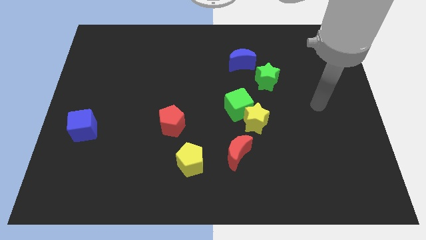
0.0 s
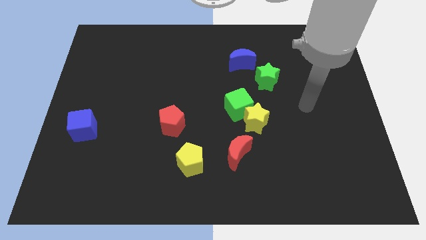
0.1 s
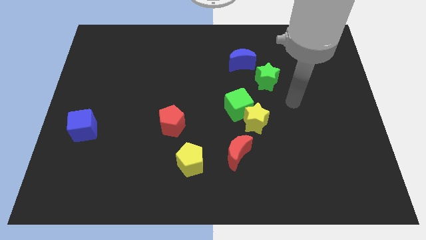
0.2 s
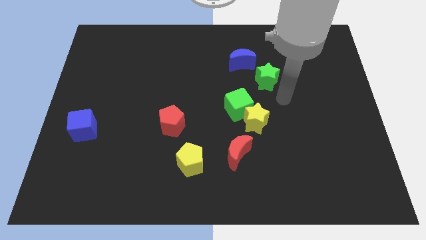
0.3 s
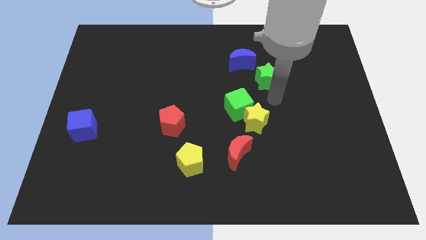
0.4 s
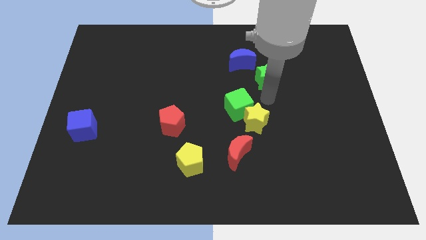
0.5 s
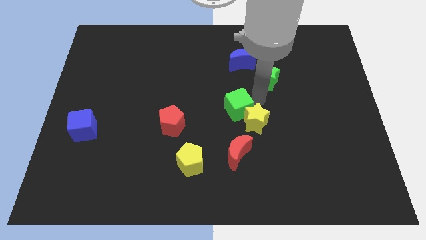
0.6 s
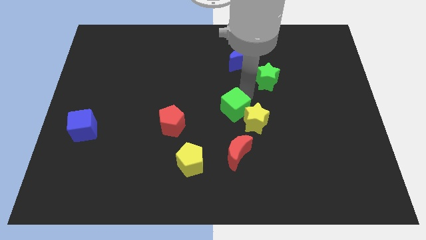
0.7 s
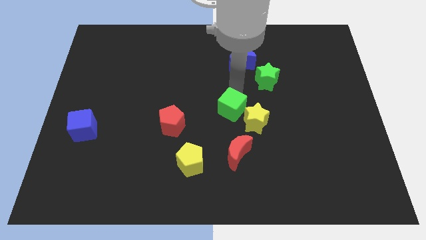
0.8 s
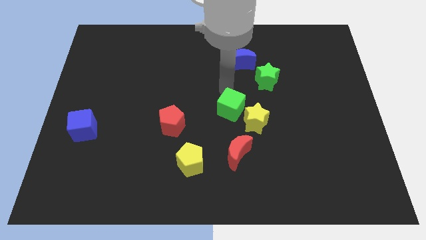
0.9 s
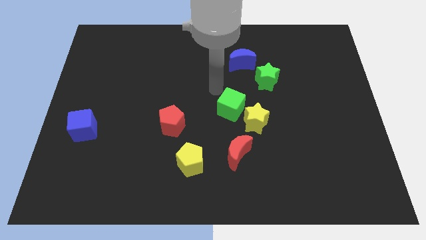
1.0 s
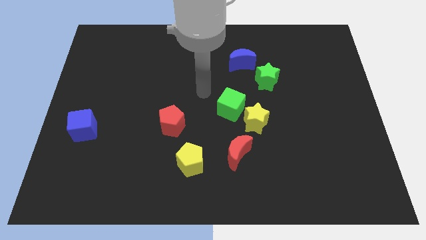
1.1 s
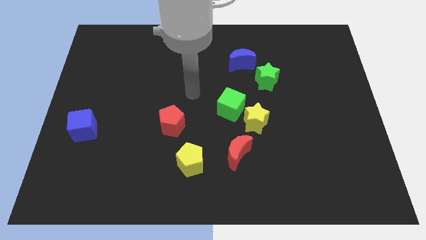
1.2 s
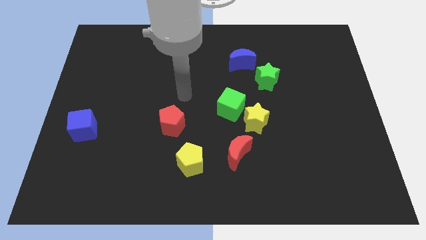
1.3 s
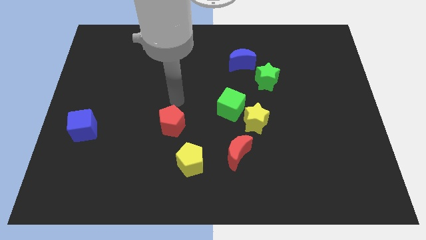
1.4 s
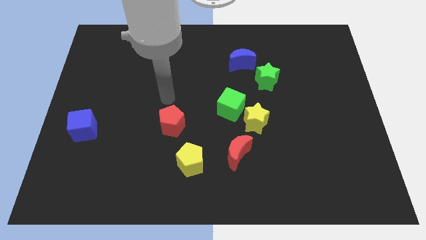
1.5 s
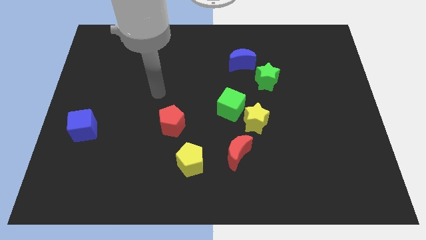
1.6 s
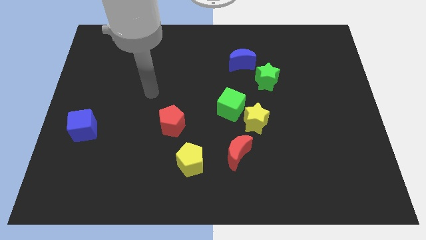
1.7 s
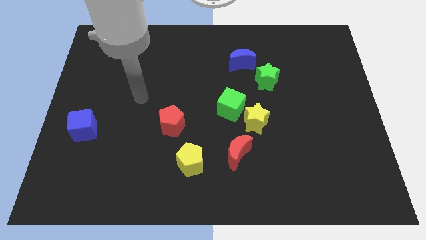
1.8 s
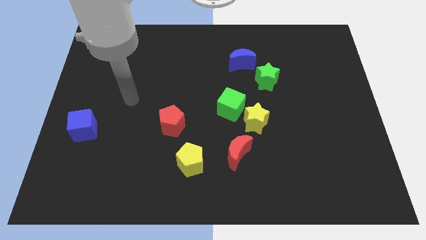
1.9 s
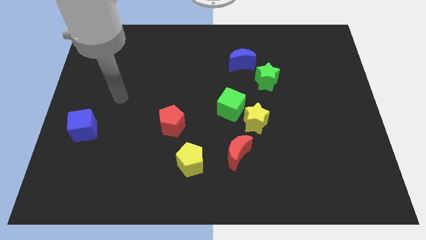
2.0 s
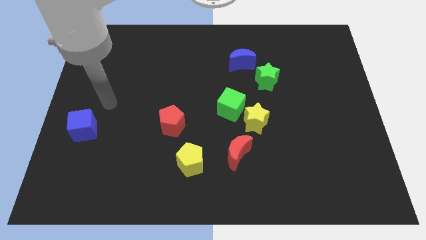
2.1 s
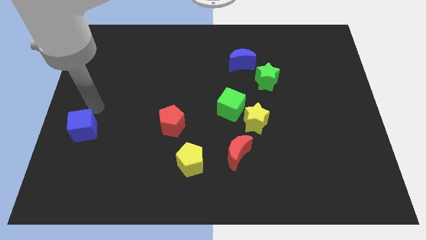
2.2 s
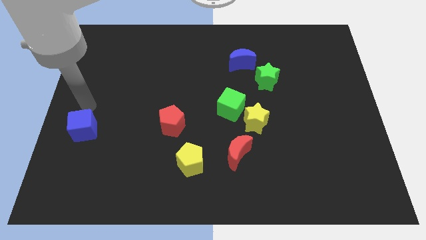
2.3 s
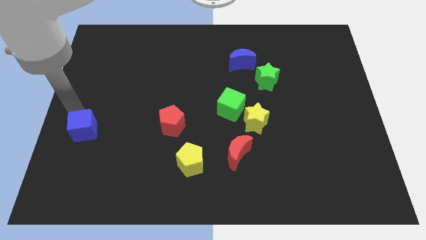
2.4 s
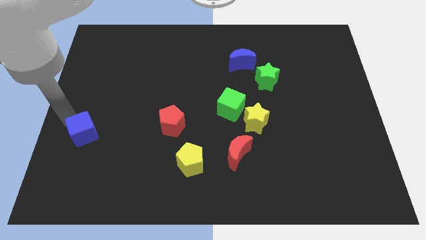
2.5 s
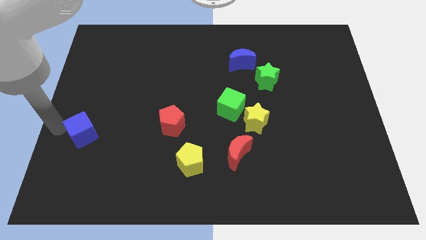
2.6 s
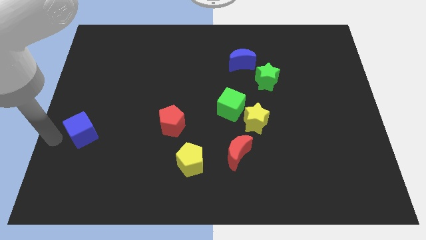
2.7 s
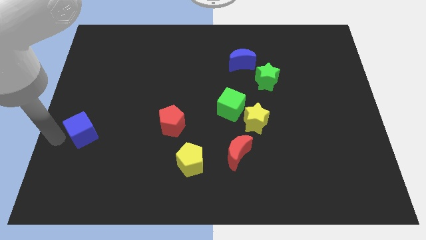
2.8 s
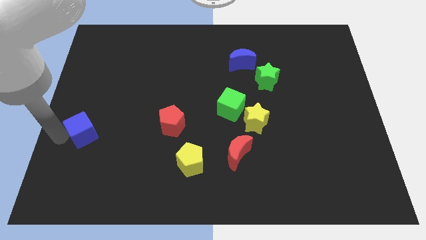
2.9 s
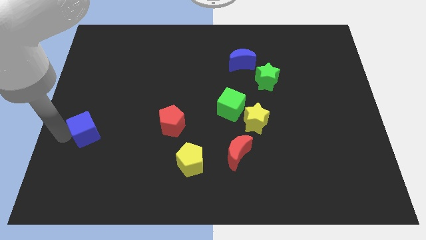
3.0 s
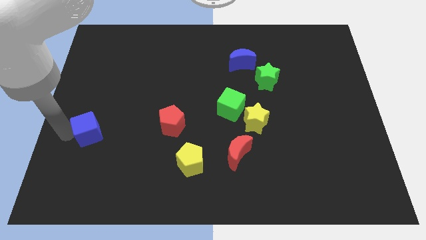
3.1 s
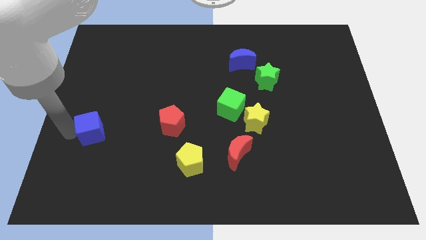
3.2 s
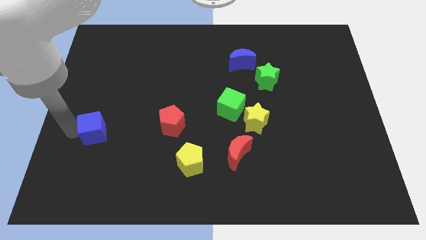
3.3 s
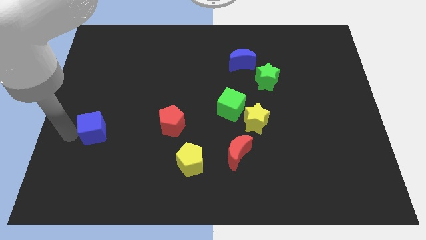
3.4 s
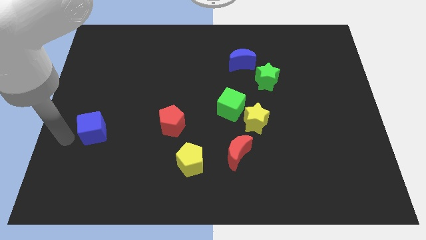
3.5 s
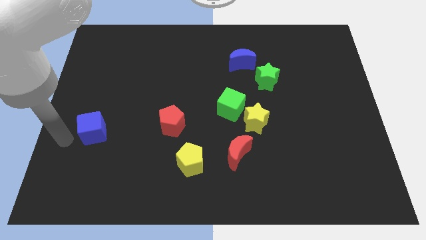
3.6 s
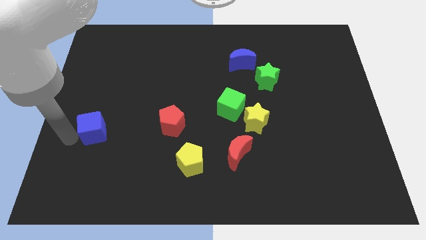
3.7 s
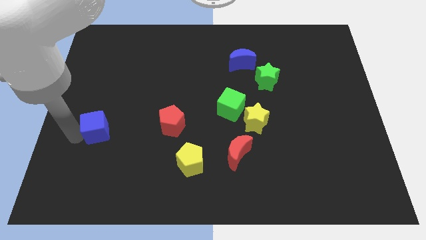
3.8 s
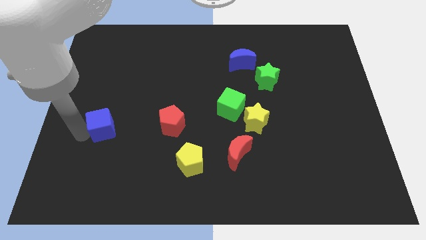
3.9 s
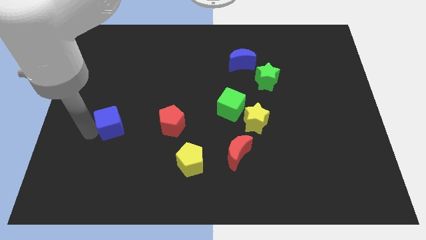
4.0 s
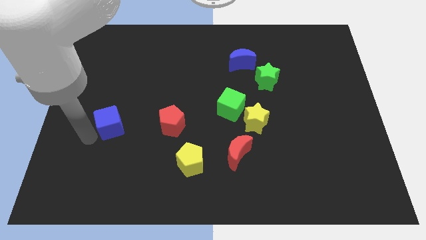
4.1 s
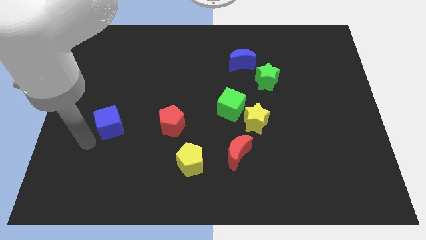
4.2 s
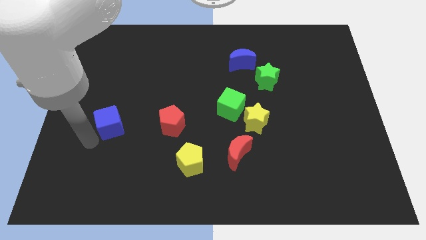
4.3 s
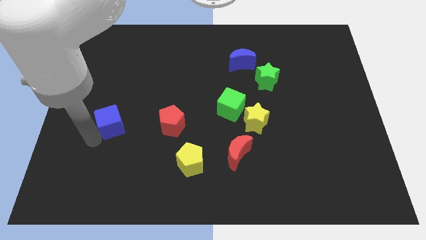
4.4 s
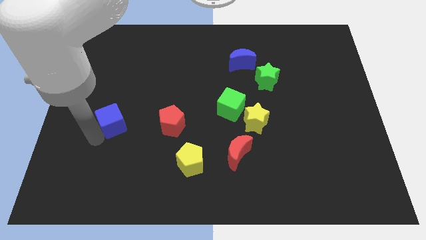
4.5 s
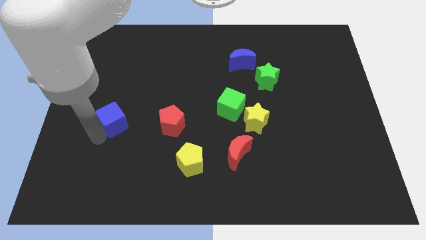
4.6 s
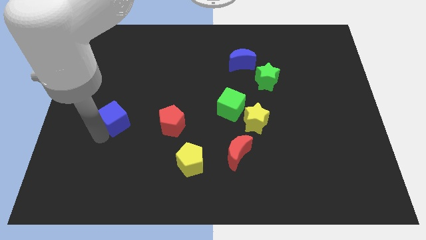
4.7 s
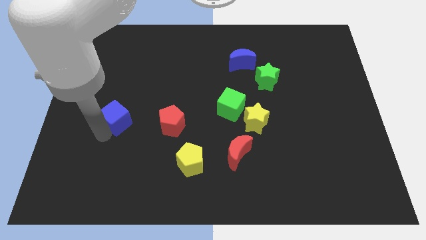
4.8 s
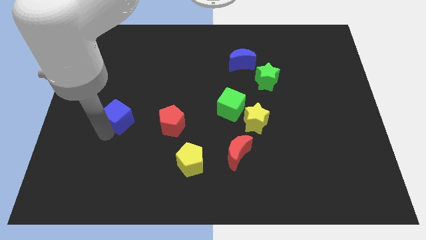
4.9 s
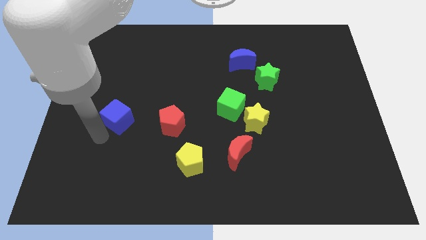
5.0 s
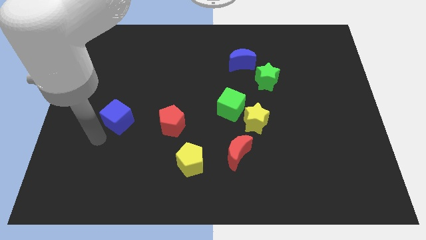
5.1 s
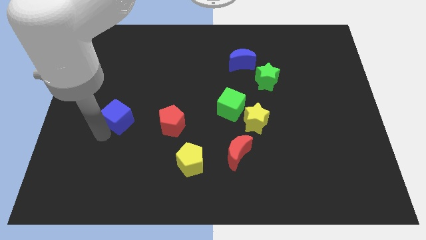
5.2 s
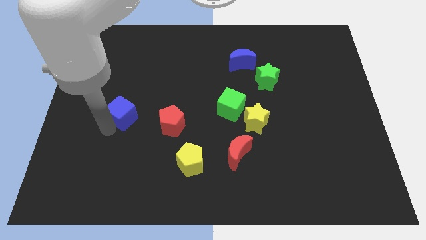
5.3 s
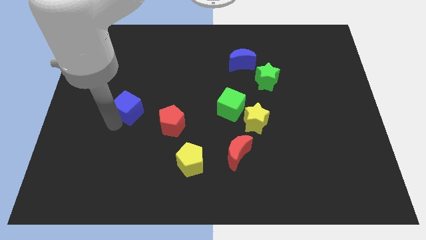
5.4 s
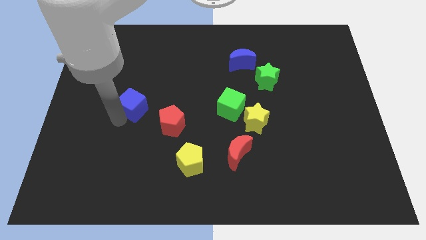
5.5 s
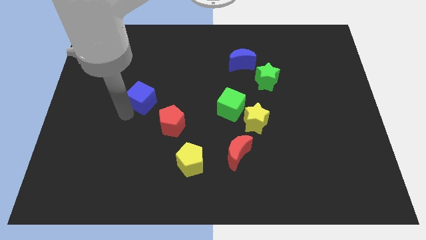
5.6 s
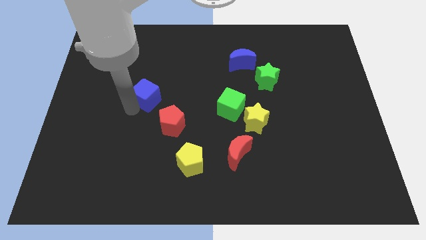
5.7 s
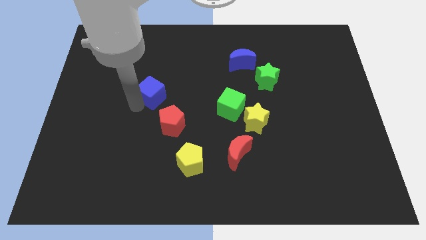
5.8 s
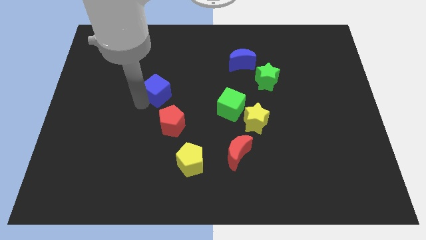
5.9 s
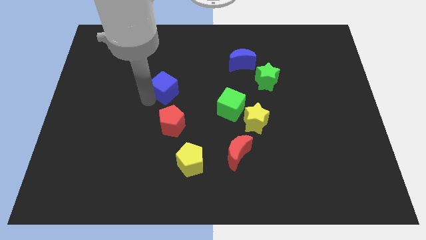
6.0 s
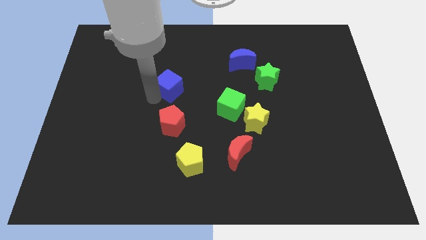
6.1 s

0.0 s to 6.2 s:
slide the blue cube up and to the right

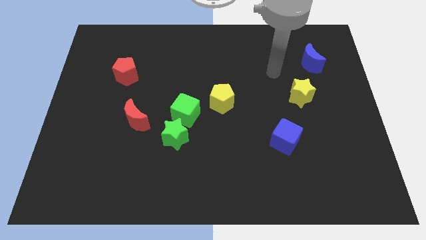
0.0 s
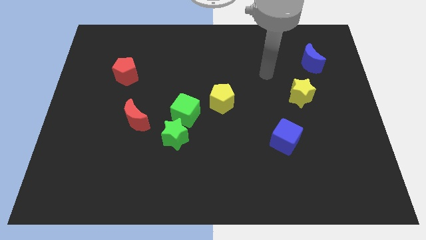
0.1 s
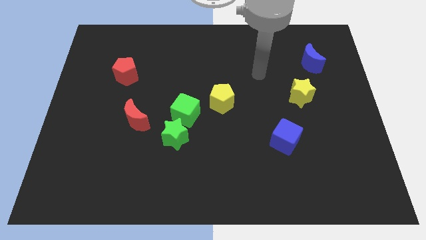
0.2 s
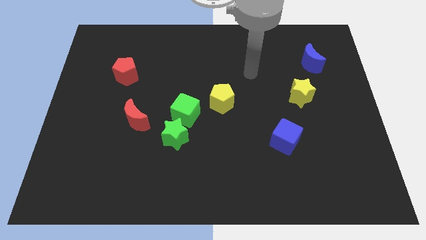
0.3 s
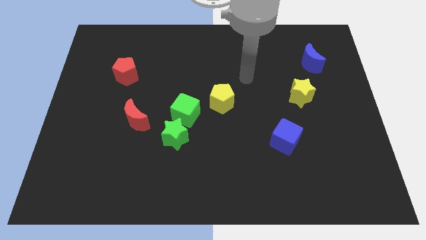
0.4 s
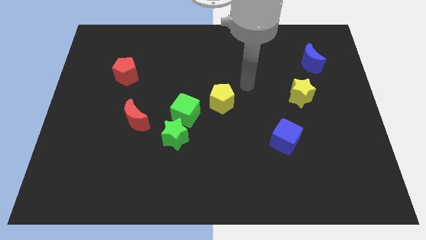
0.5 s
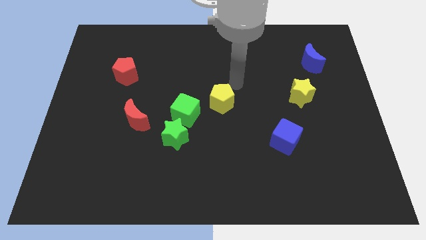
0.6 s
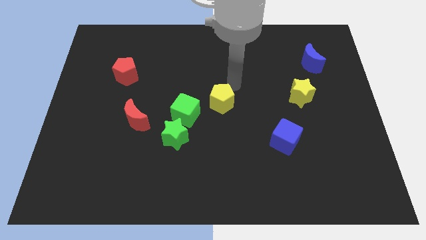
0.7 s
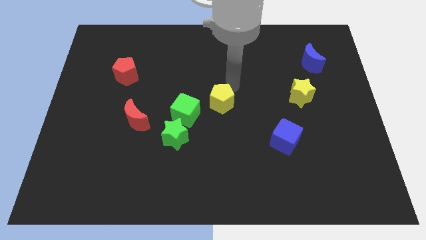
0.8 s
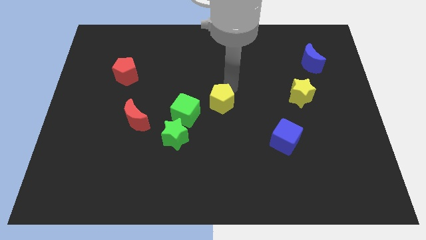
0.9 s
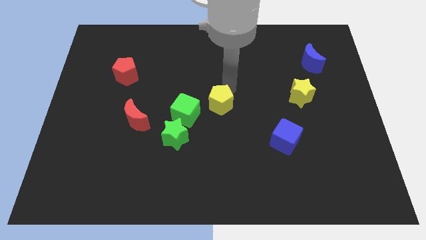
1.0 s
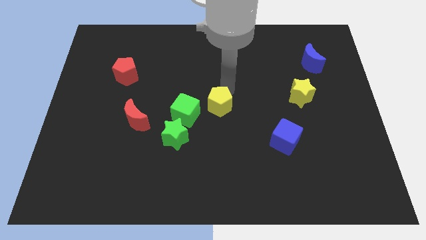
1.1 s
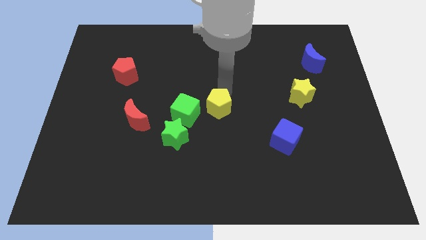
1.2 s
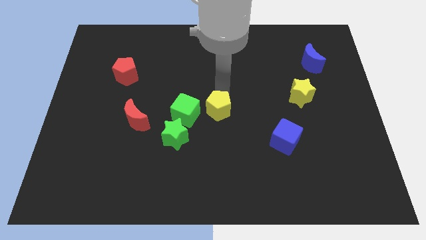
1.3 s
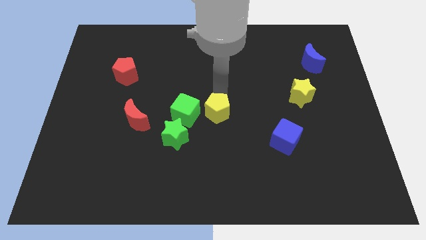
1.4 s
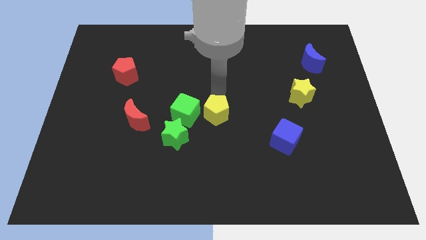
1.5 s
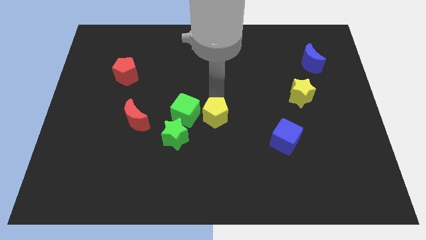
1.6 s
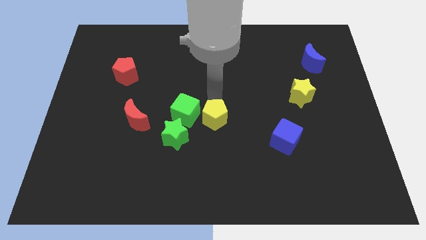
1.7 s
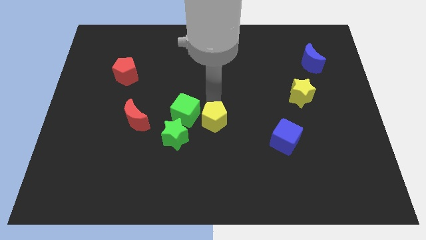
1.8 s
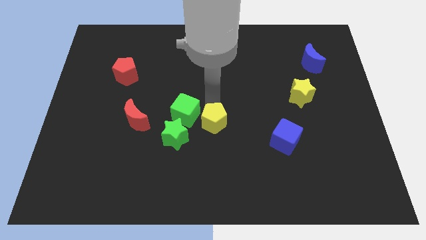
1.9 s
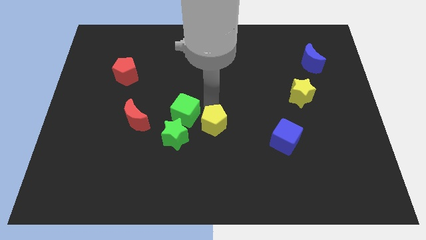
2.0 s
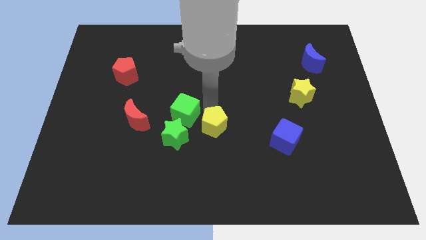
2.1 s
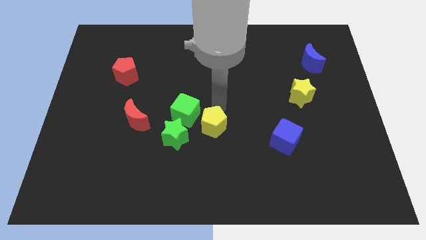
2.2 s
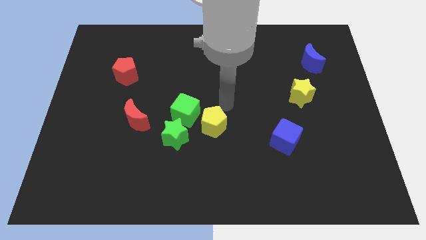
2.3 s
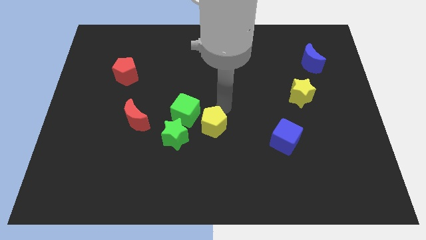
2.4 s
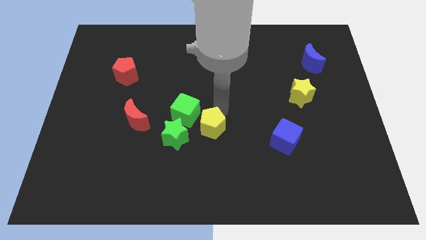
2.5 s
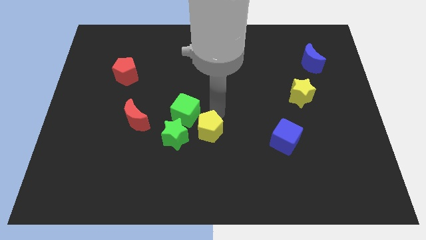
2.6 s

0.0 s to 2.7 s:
slightly push the yellow pentagon downwards and to the left diagonally
